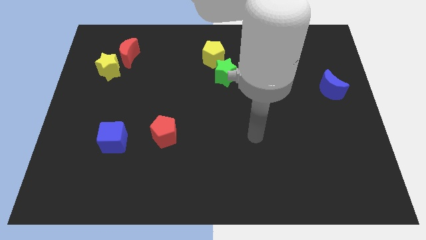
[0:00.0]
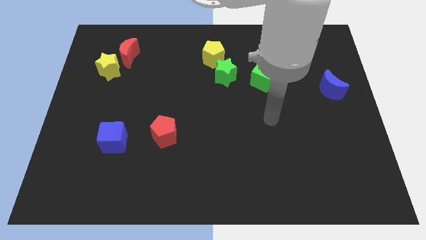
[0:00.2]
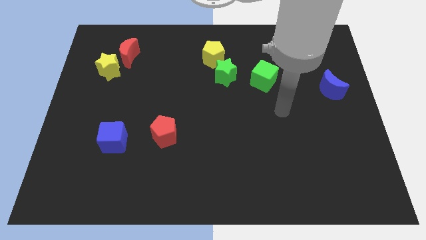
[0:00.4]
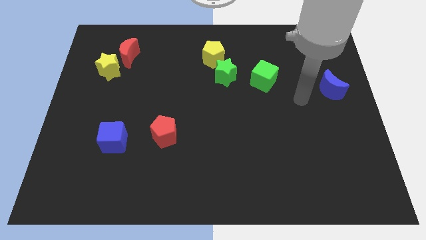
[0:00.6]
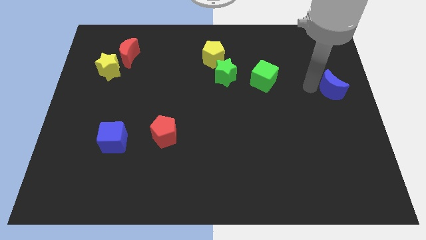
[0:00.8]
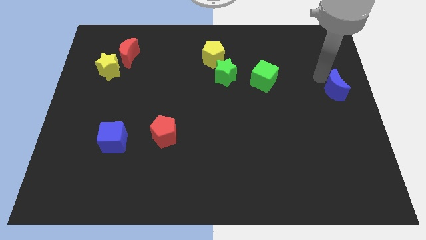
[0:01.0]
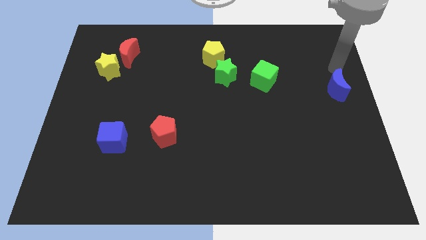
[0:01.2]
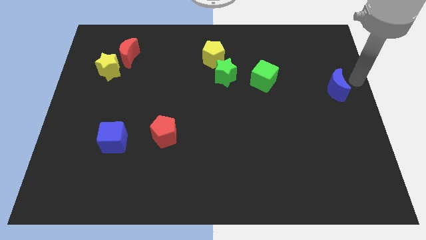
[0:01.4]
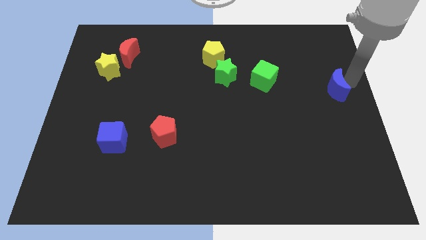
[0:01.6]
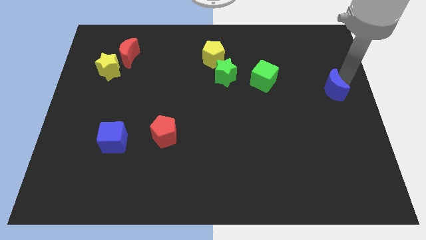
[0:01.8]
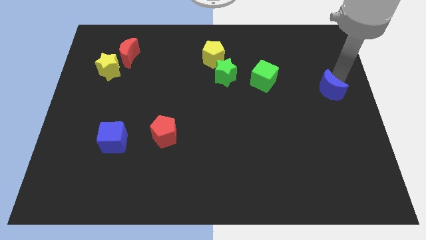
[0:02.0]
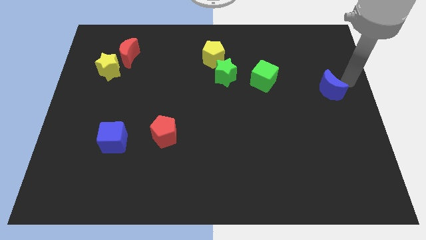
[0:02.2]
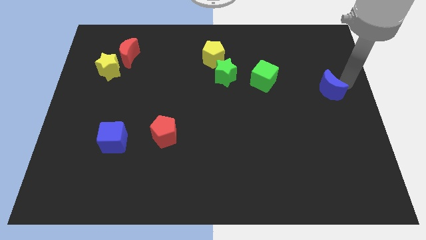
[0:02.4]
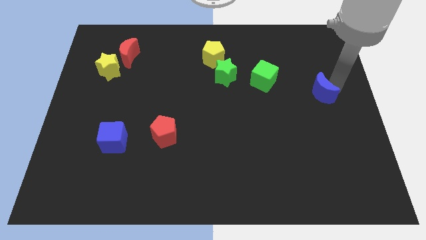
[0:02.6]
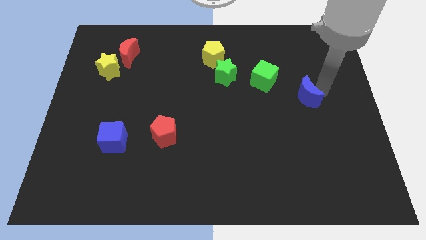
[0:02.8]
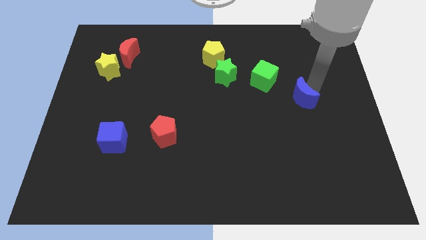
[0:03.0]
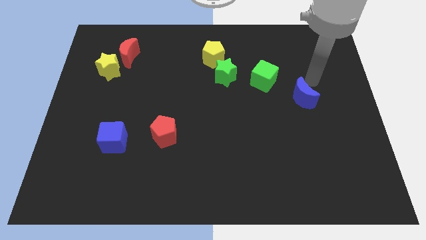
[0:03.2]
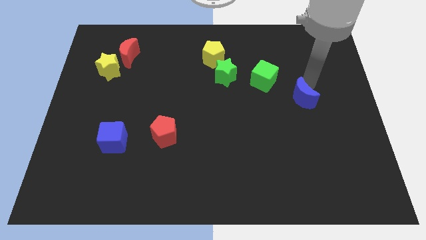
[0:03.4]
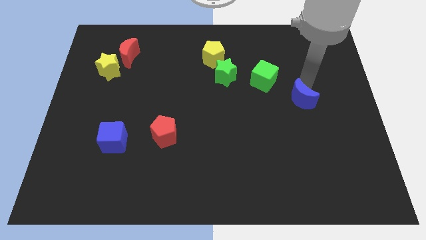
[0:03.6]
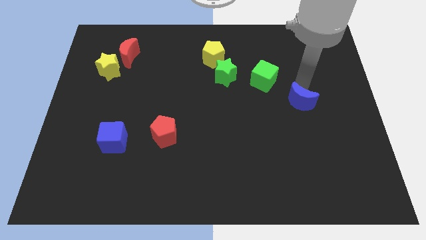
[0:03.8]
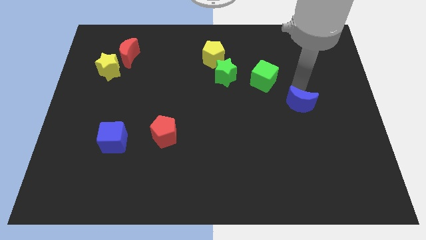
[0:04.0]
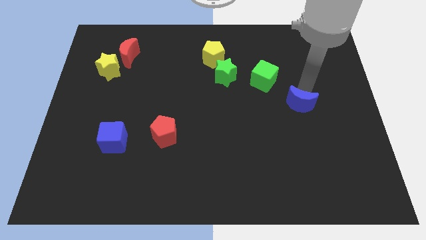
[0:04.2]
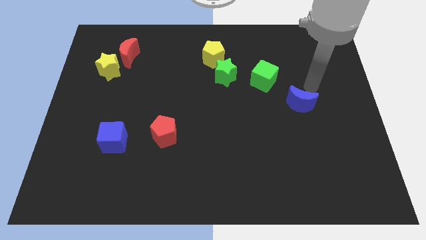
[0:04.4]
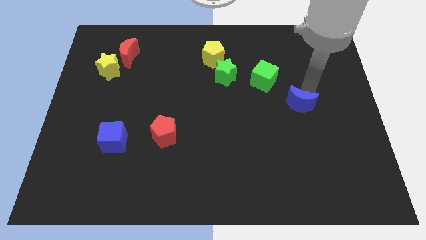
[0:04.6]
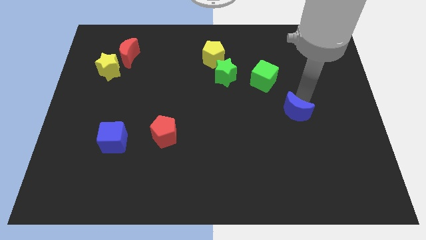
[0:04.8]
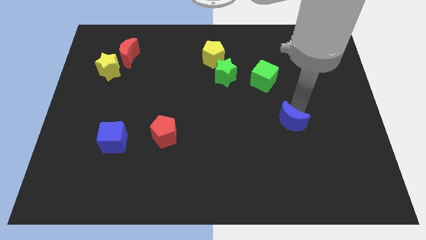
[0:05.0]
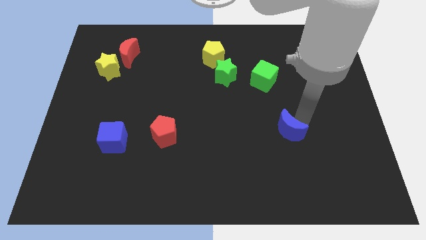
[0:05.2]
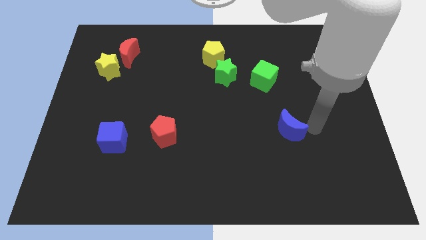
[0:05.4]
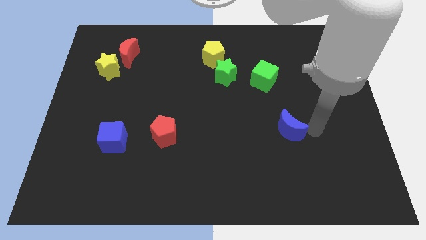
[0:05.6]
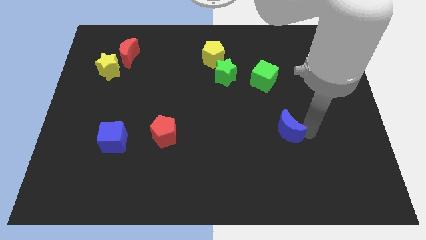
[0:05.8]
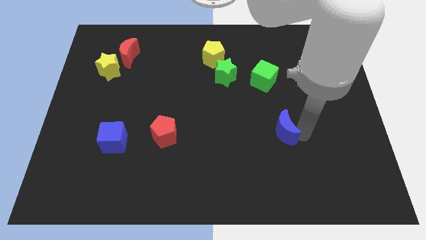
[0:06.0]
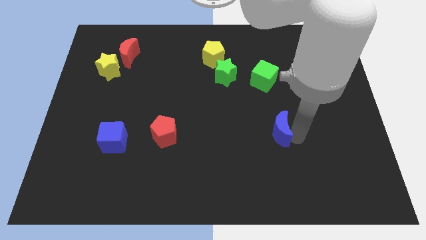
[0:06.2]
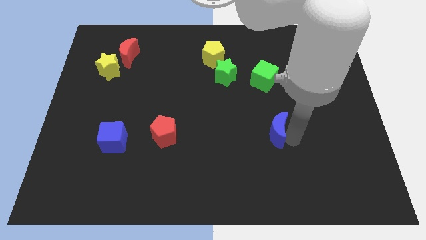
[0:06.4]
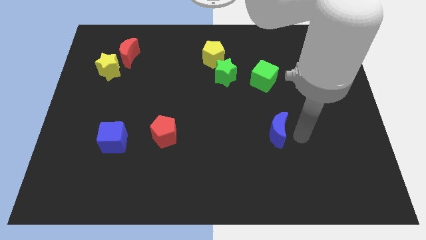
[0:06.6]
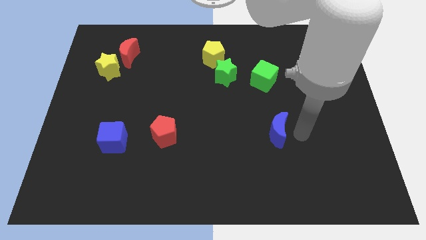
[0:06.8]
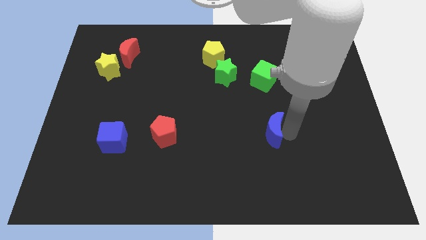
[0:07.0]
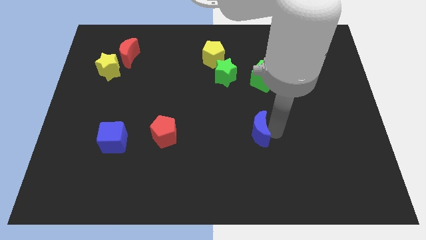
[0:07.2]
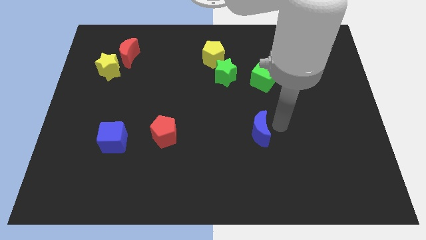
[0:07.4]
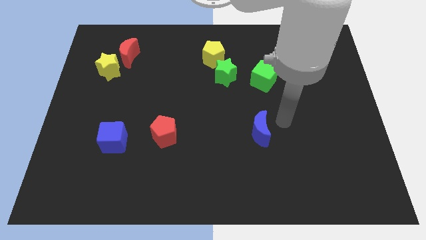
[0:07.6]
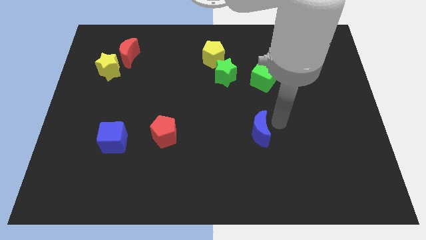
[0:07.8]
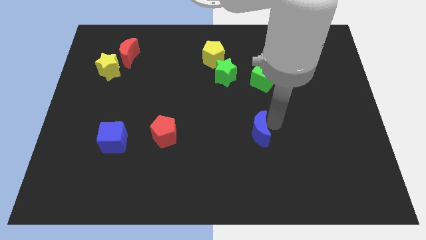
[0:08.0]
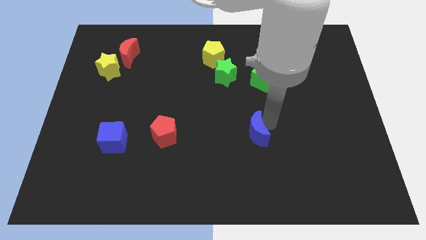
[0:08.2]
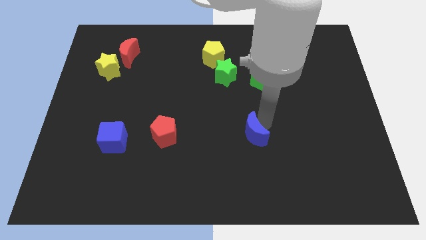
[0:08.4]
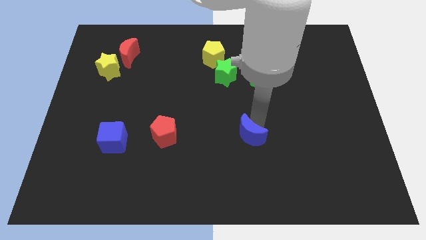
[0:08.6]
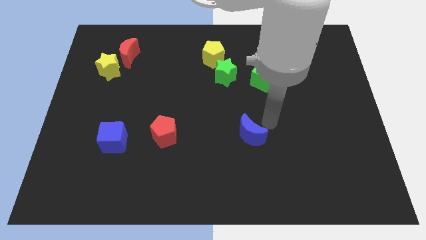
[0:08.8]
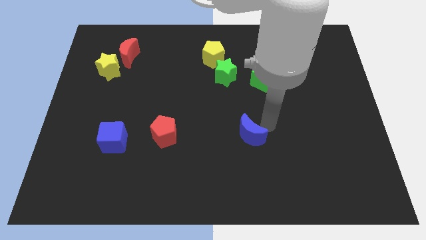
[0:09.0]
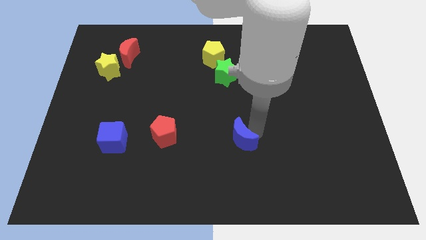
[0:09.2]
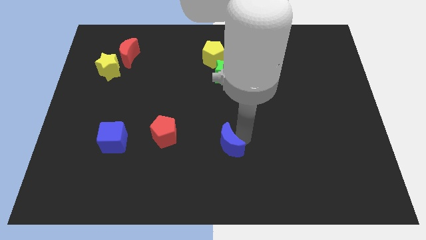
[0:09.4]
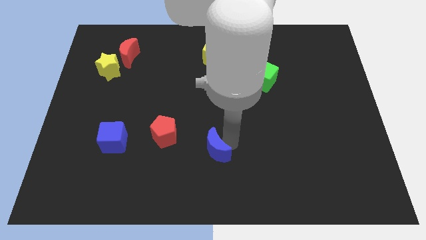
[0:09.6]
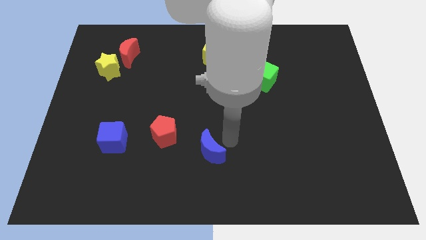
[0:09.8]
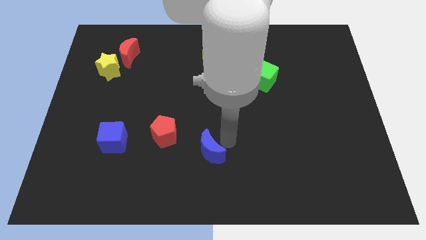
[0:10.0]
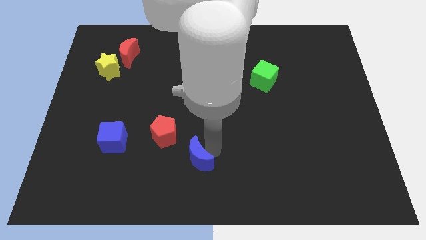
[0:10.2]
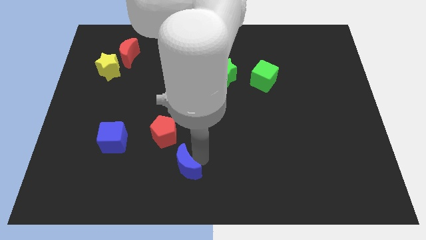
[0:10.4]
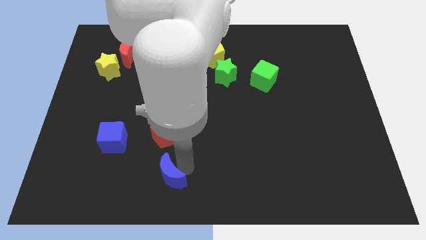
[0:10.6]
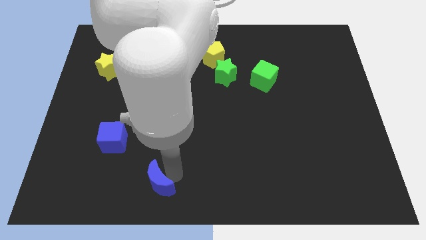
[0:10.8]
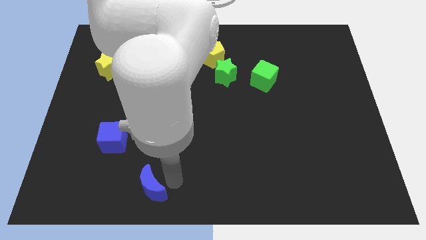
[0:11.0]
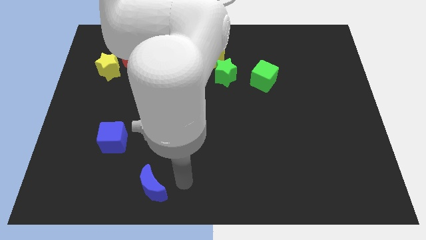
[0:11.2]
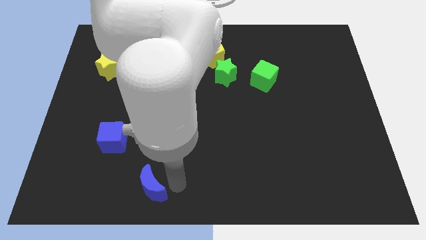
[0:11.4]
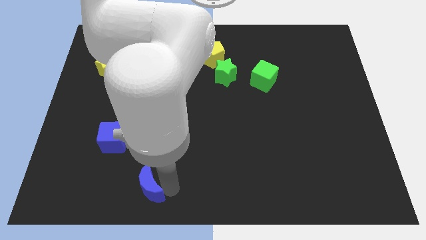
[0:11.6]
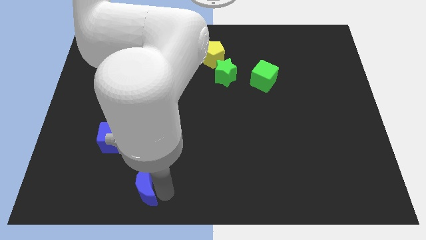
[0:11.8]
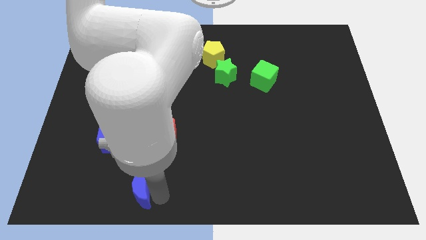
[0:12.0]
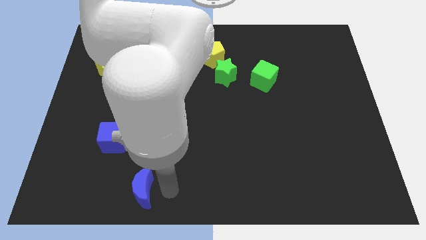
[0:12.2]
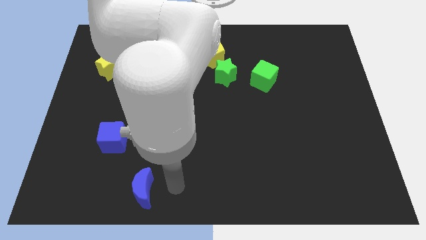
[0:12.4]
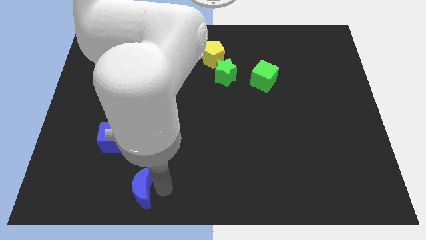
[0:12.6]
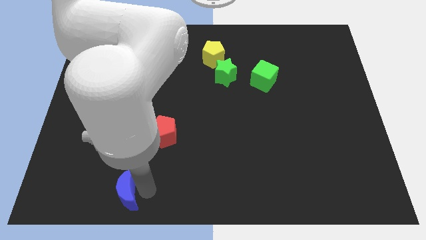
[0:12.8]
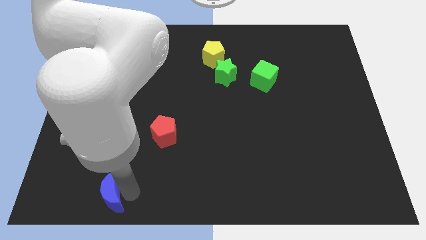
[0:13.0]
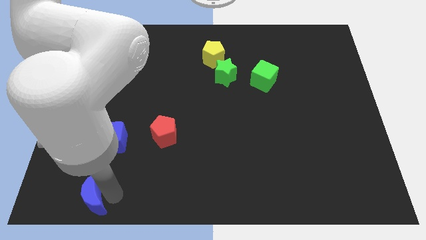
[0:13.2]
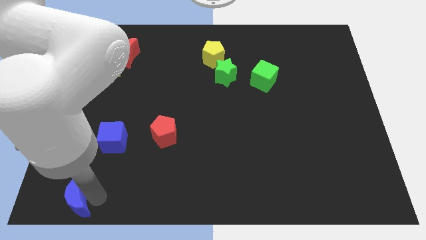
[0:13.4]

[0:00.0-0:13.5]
put the blue moon to the bottom left
